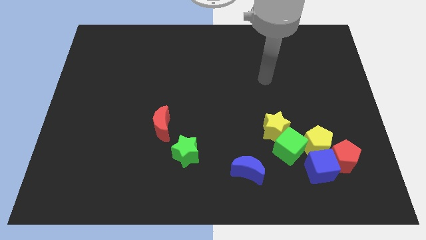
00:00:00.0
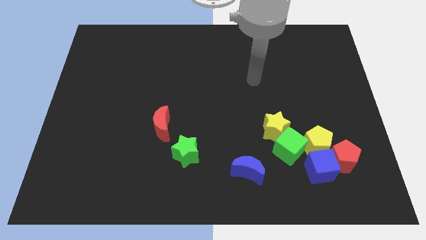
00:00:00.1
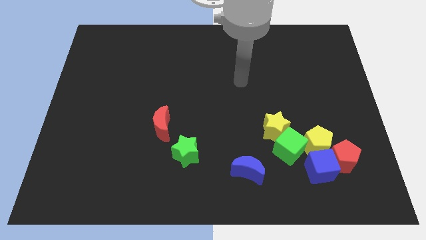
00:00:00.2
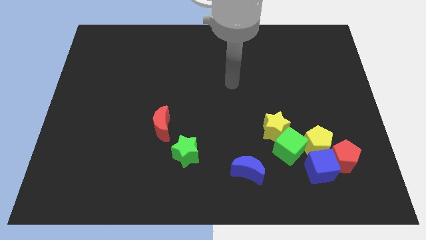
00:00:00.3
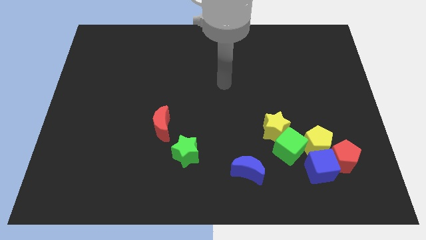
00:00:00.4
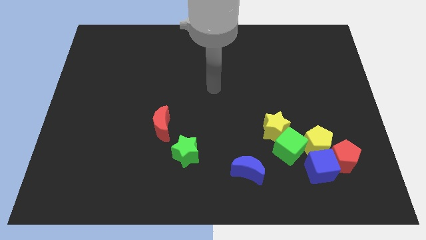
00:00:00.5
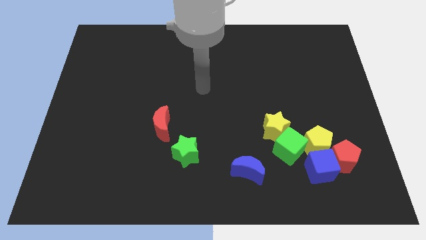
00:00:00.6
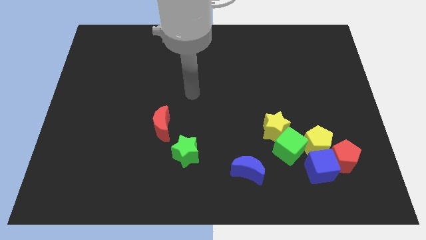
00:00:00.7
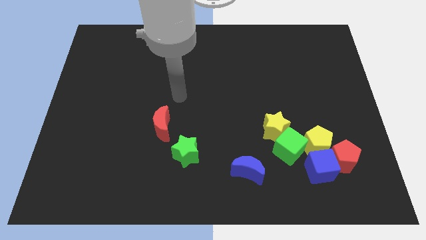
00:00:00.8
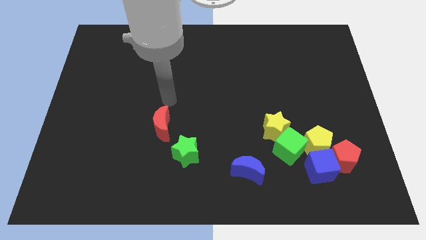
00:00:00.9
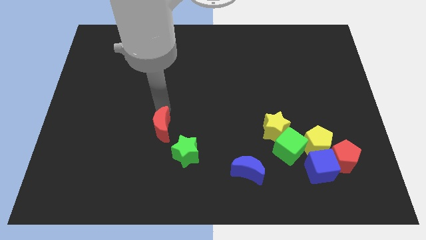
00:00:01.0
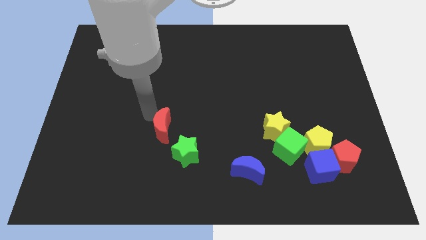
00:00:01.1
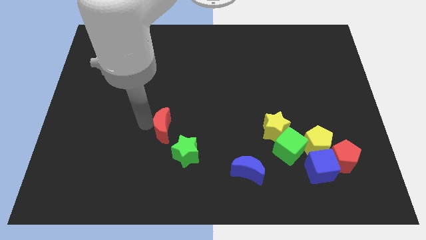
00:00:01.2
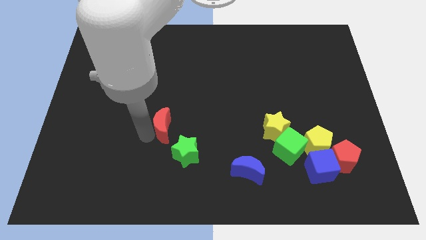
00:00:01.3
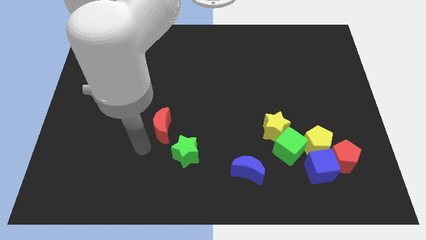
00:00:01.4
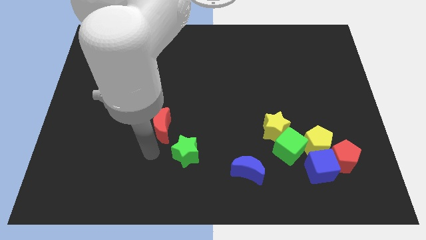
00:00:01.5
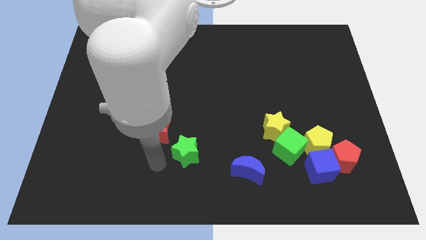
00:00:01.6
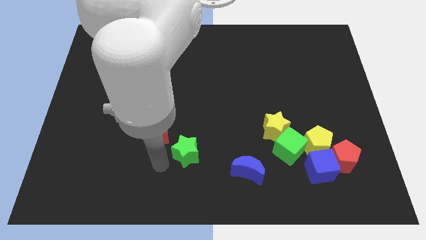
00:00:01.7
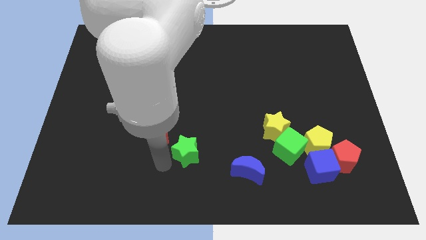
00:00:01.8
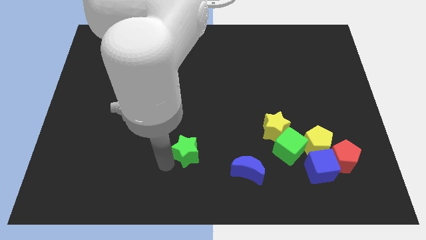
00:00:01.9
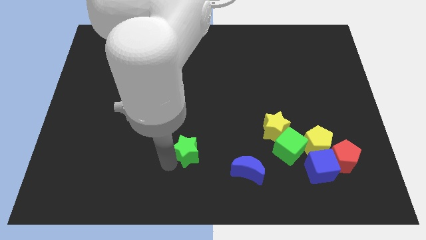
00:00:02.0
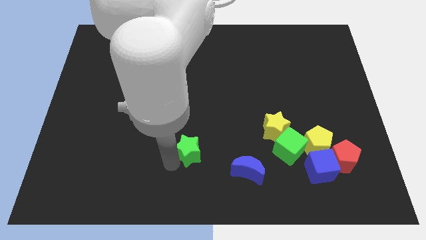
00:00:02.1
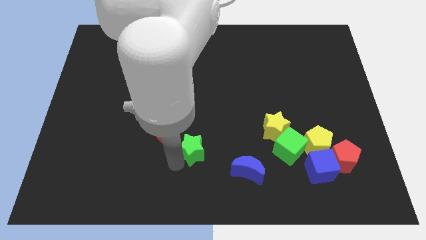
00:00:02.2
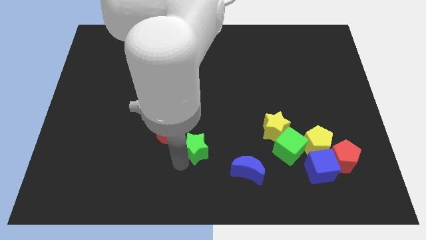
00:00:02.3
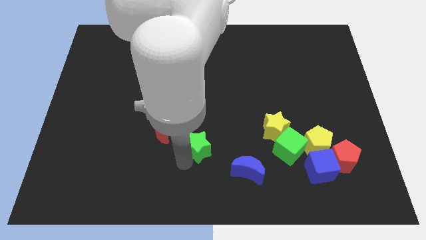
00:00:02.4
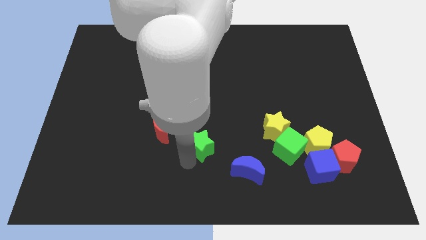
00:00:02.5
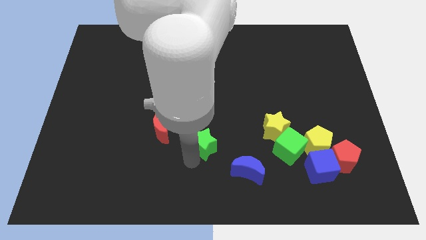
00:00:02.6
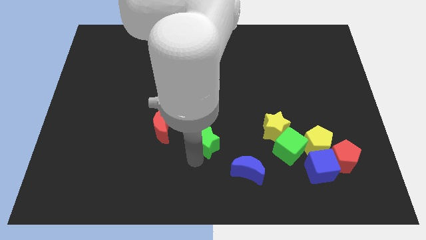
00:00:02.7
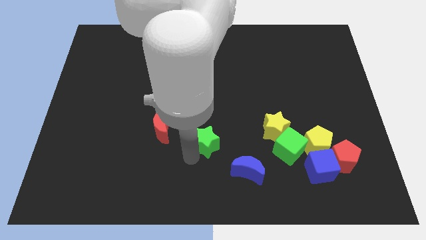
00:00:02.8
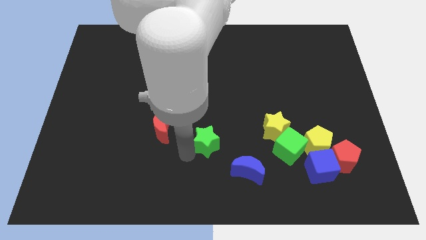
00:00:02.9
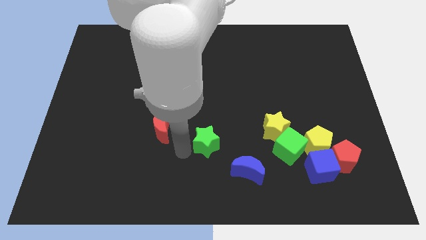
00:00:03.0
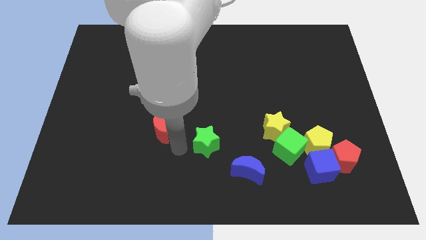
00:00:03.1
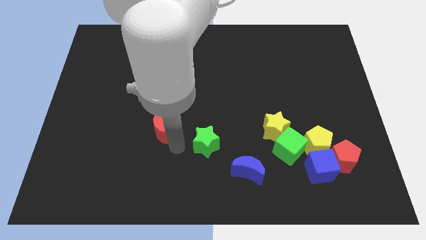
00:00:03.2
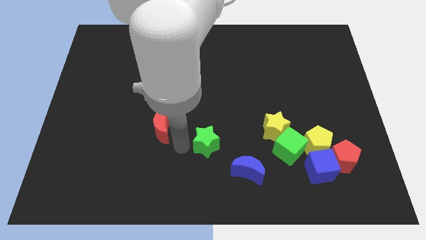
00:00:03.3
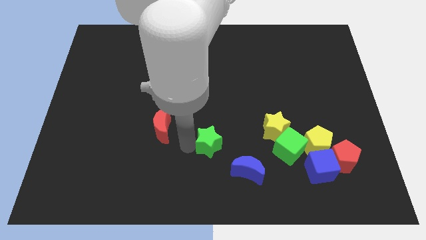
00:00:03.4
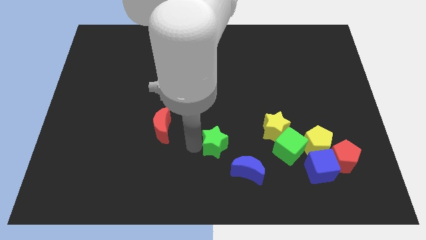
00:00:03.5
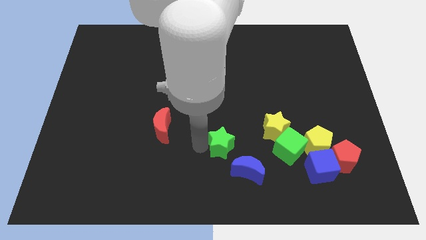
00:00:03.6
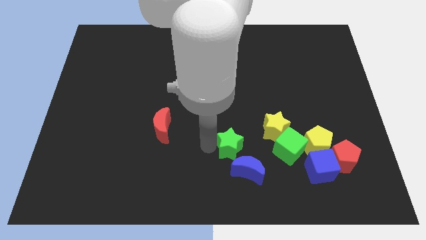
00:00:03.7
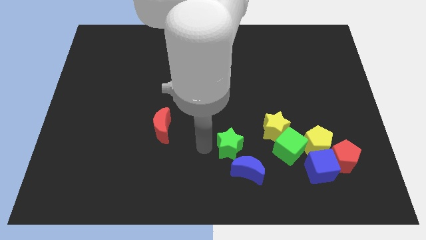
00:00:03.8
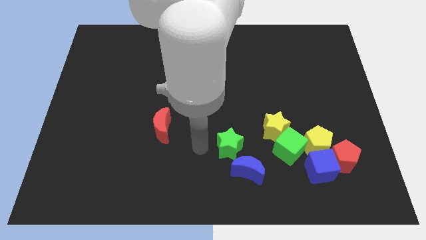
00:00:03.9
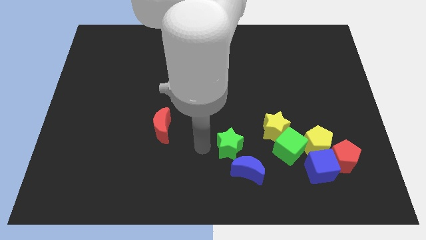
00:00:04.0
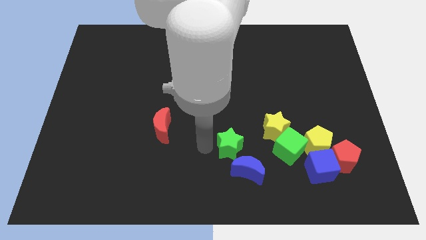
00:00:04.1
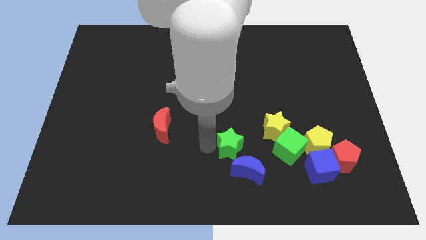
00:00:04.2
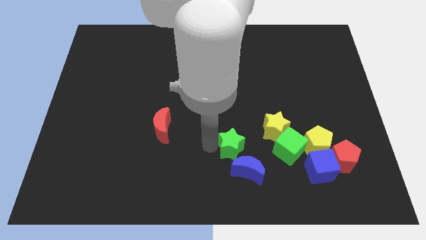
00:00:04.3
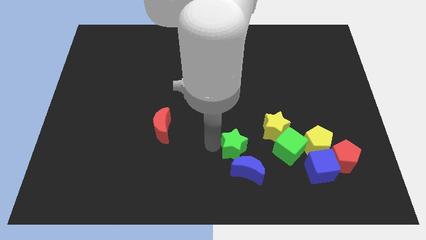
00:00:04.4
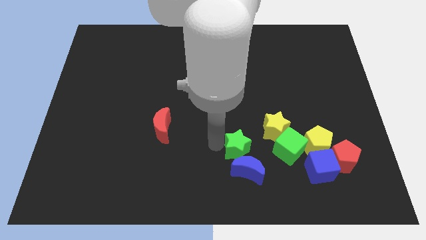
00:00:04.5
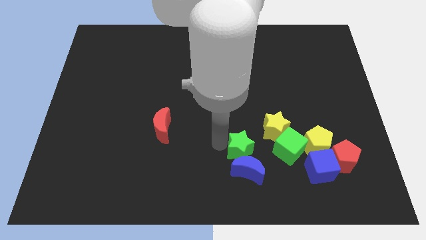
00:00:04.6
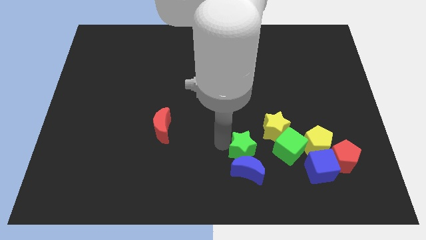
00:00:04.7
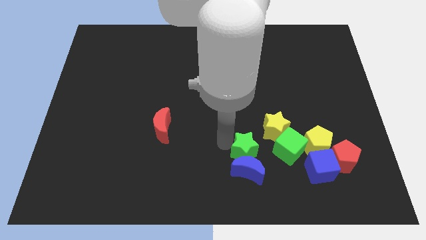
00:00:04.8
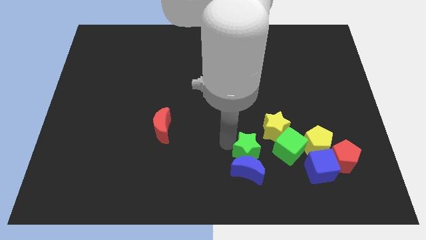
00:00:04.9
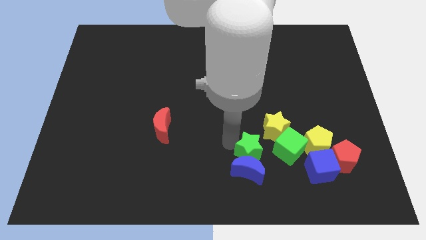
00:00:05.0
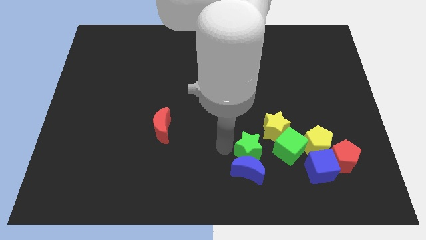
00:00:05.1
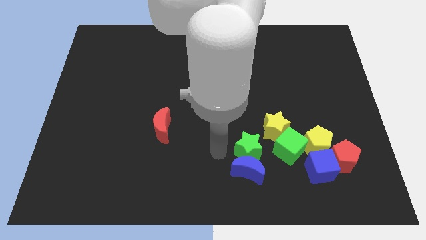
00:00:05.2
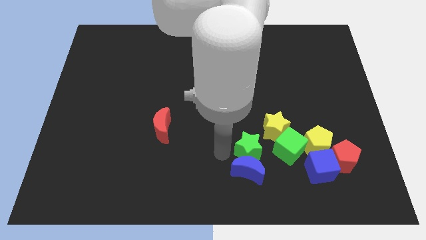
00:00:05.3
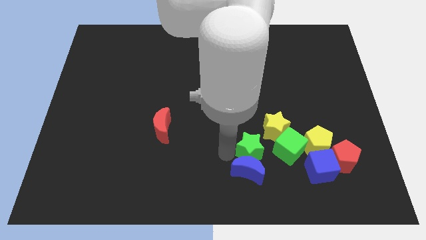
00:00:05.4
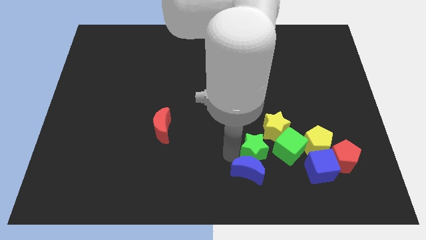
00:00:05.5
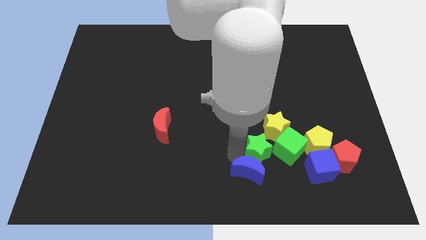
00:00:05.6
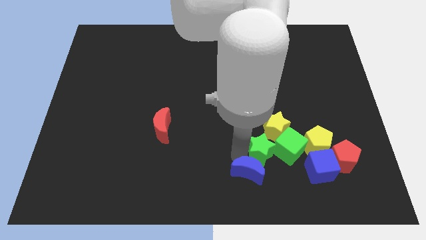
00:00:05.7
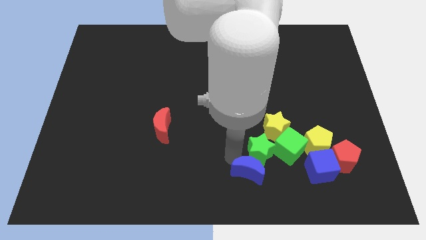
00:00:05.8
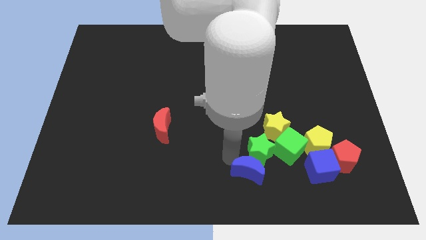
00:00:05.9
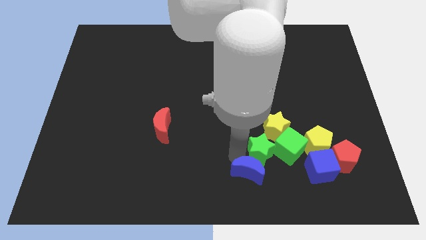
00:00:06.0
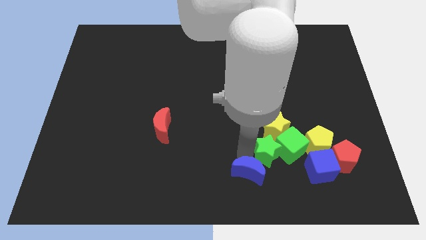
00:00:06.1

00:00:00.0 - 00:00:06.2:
slide the green star to the green cube
